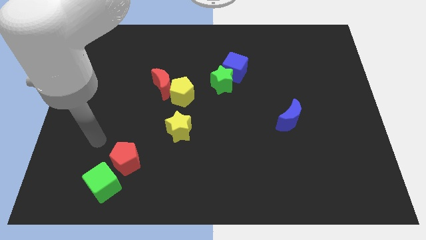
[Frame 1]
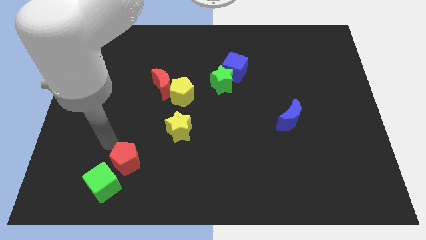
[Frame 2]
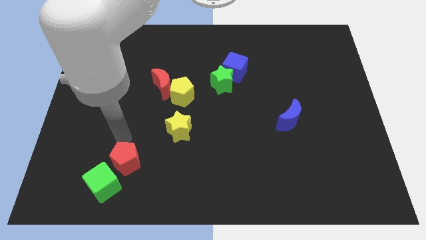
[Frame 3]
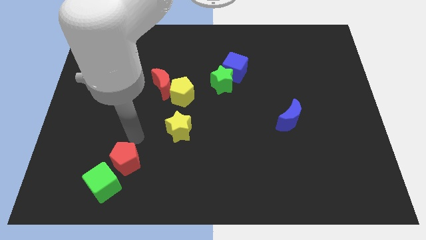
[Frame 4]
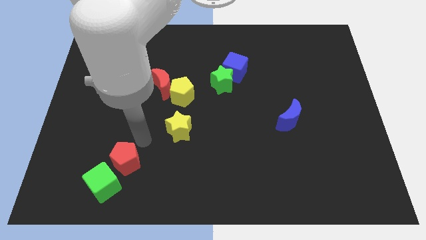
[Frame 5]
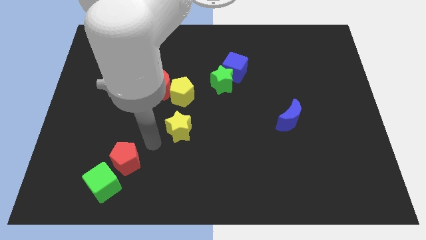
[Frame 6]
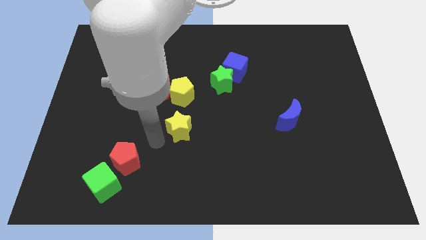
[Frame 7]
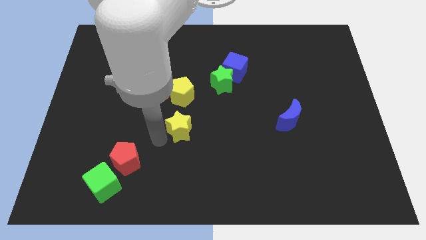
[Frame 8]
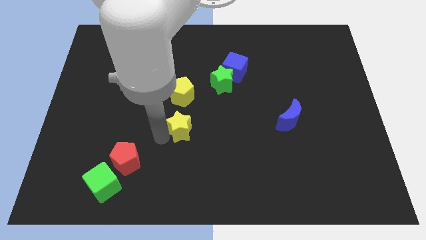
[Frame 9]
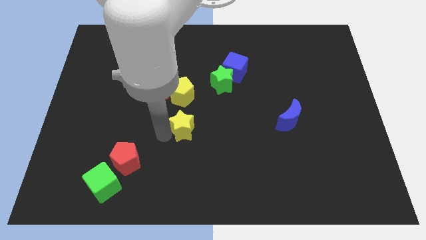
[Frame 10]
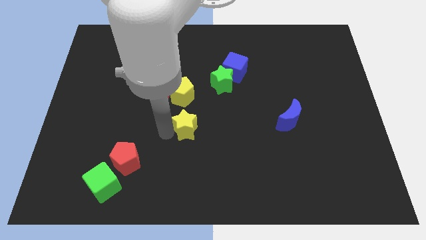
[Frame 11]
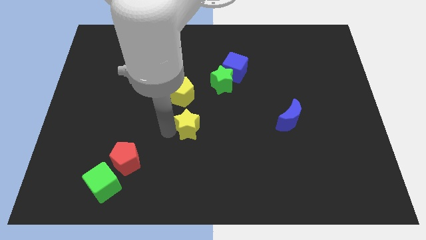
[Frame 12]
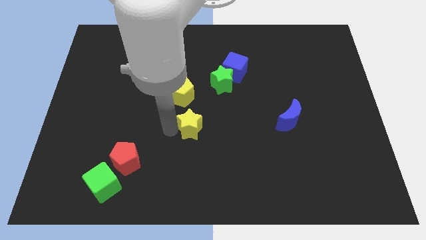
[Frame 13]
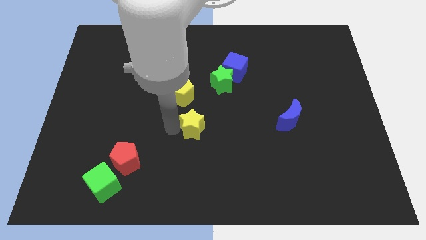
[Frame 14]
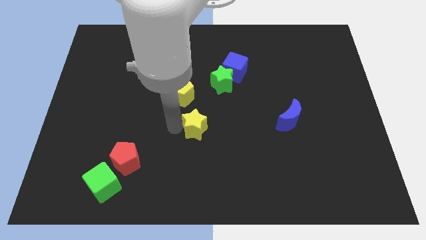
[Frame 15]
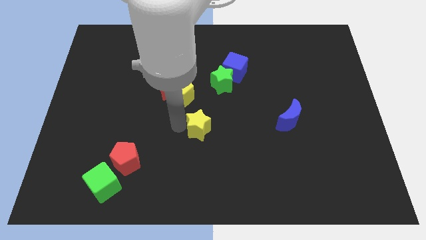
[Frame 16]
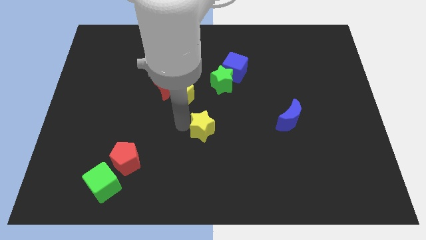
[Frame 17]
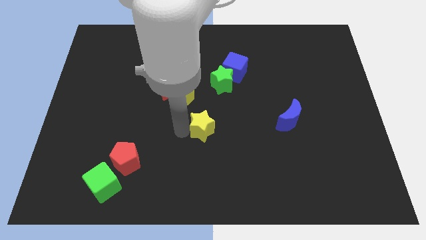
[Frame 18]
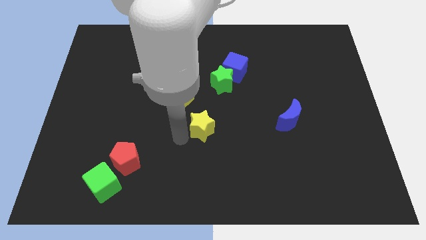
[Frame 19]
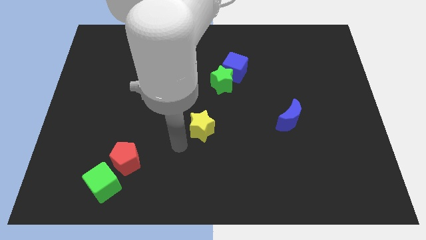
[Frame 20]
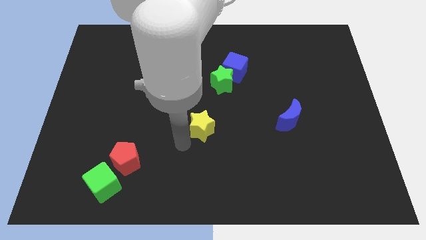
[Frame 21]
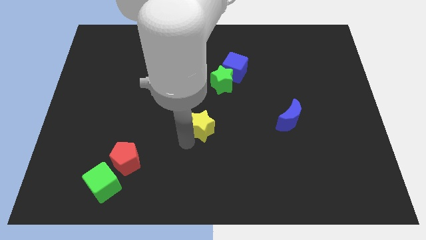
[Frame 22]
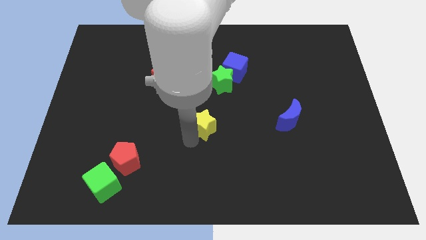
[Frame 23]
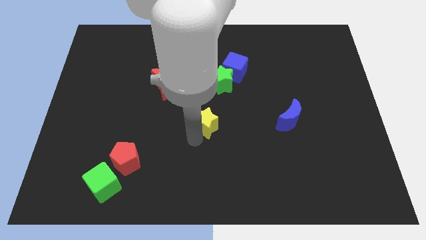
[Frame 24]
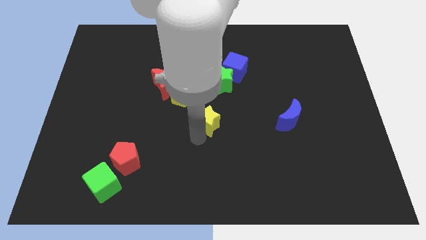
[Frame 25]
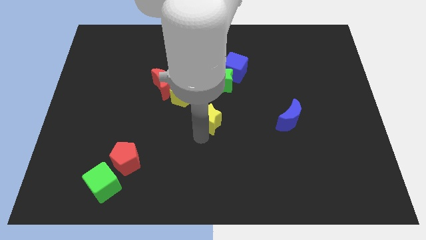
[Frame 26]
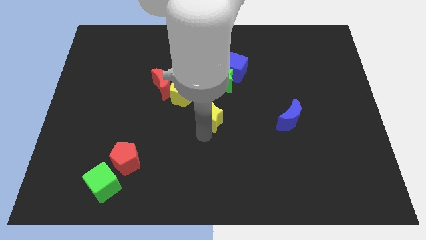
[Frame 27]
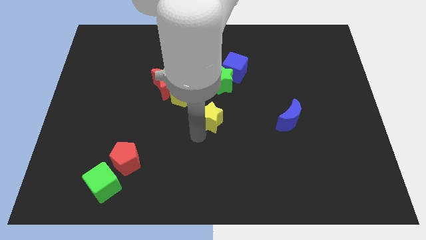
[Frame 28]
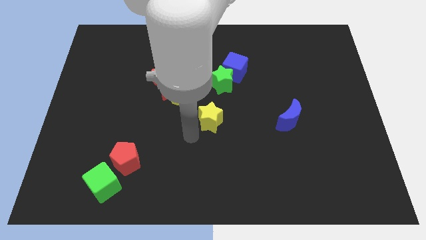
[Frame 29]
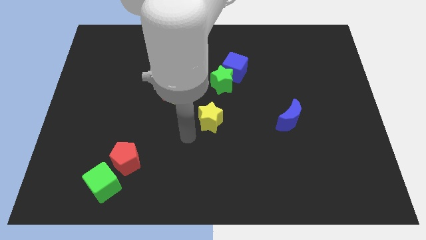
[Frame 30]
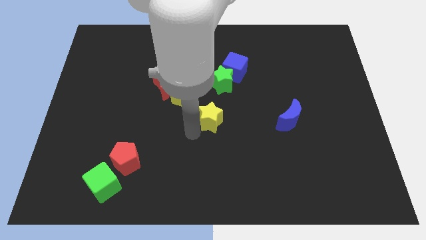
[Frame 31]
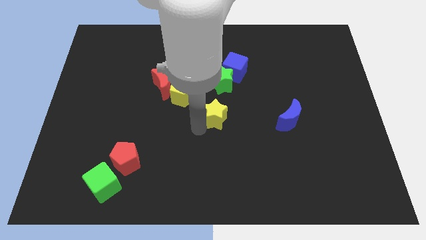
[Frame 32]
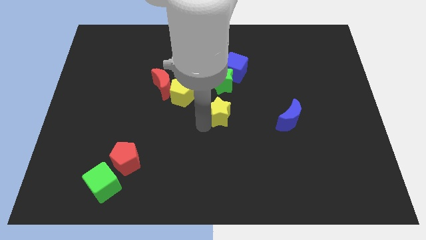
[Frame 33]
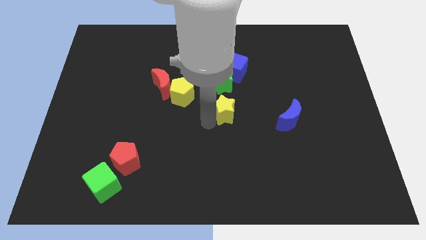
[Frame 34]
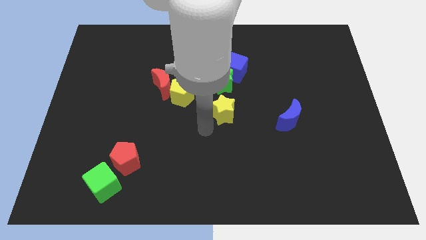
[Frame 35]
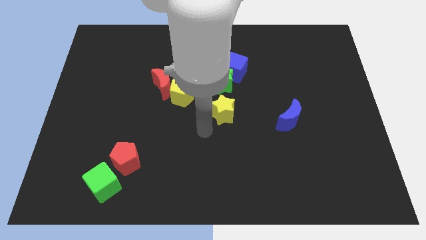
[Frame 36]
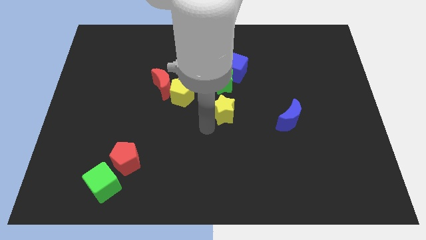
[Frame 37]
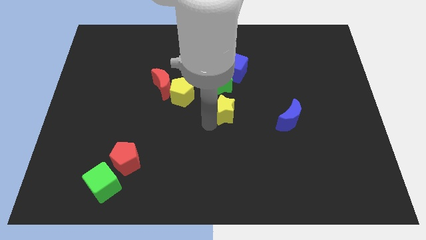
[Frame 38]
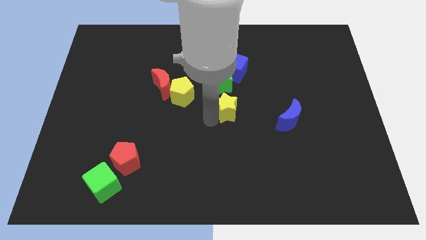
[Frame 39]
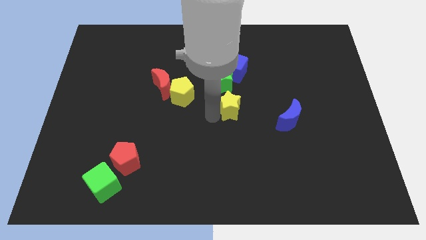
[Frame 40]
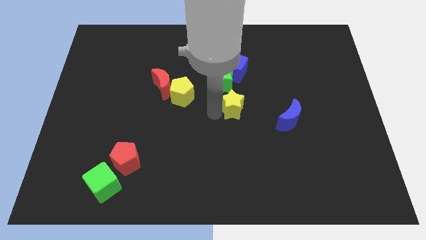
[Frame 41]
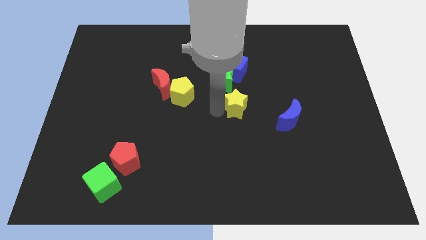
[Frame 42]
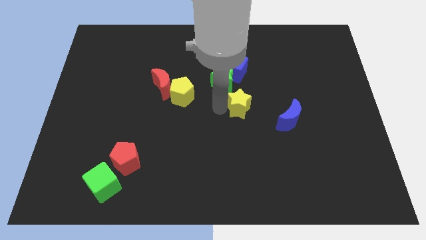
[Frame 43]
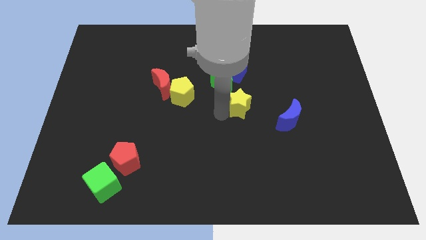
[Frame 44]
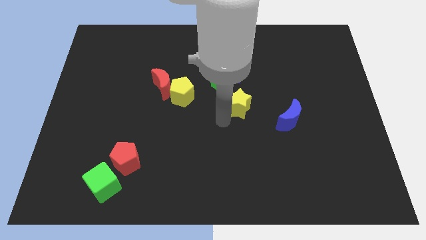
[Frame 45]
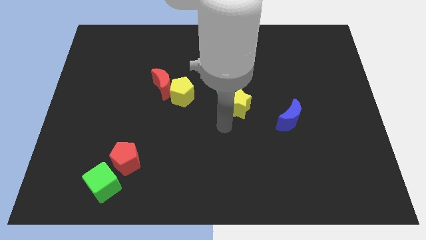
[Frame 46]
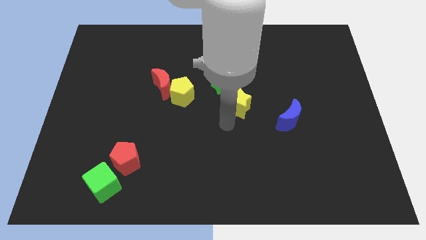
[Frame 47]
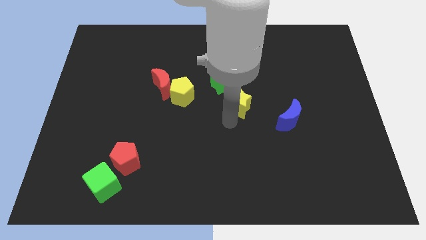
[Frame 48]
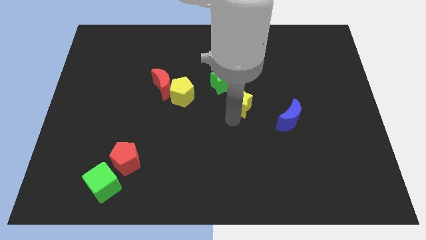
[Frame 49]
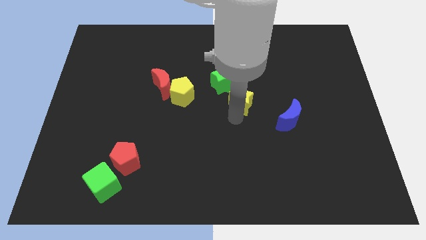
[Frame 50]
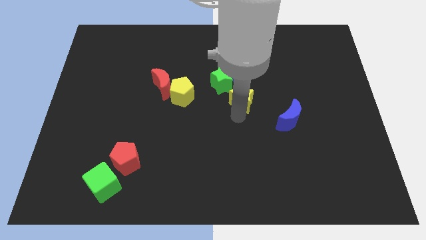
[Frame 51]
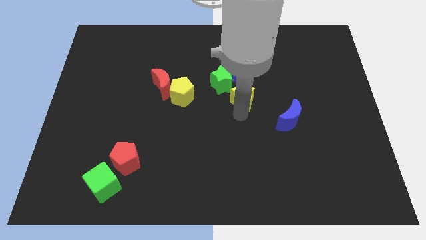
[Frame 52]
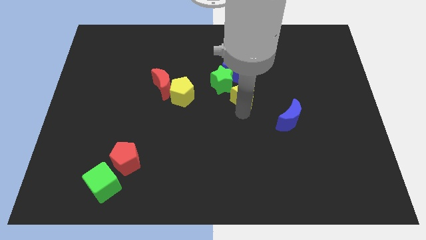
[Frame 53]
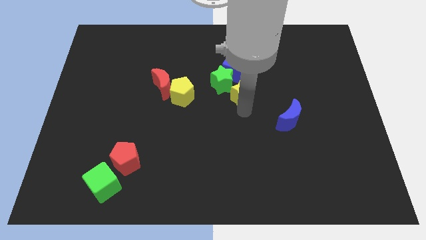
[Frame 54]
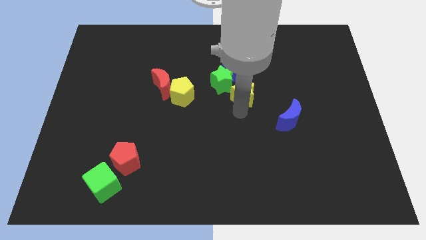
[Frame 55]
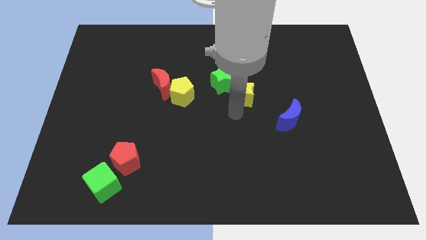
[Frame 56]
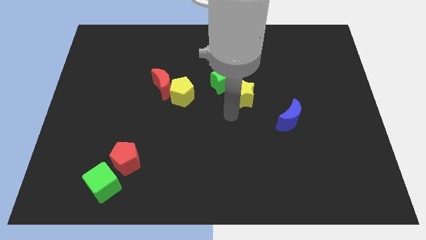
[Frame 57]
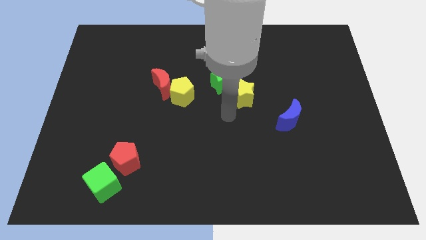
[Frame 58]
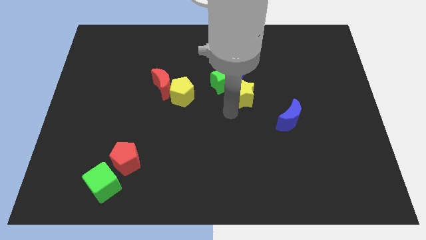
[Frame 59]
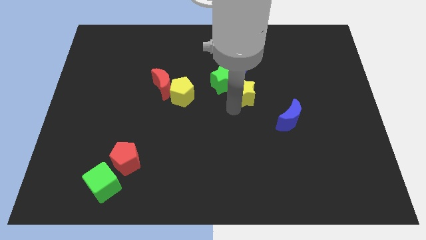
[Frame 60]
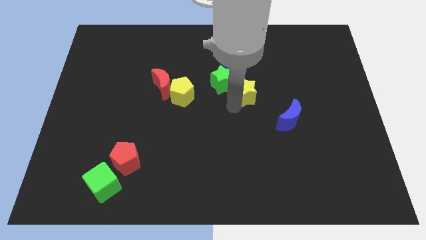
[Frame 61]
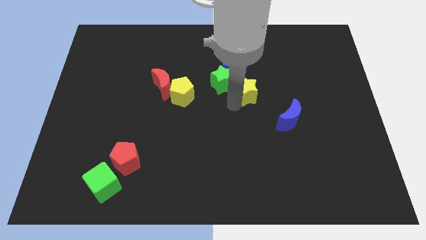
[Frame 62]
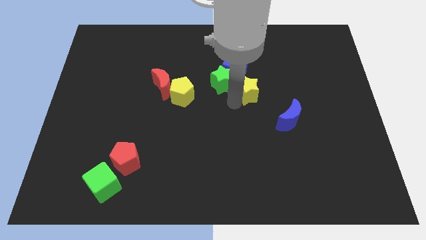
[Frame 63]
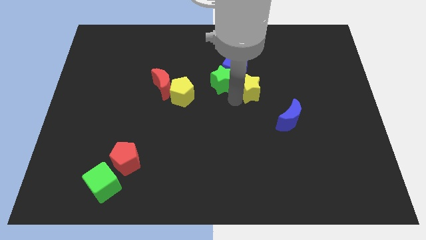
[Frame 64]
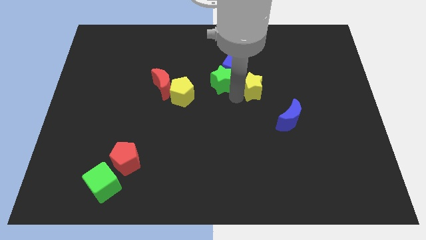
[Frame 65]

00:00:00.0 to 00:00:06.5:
slide the yellow star upwards and right

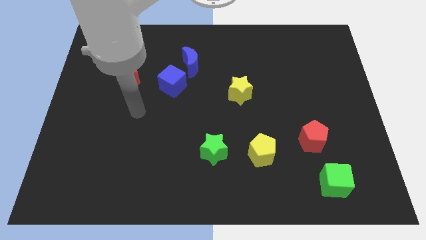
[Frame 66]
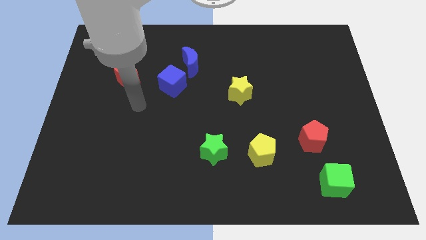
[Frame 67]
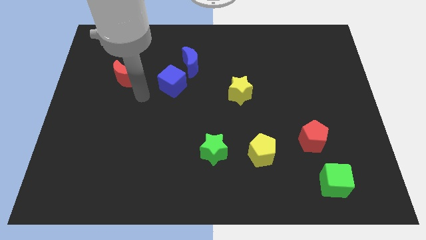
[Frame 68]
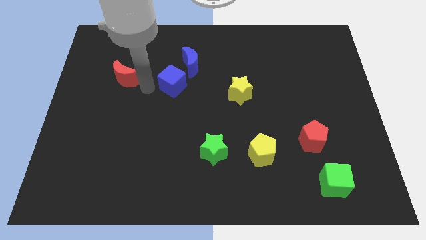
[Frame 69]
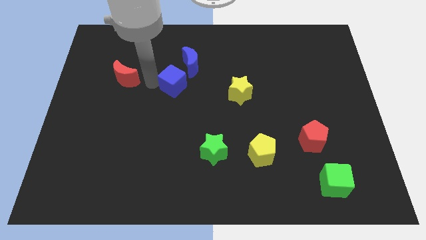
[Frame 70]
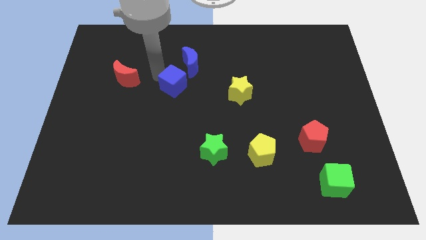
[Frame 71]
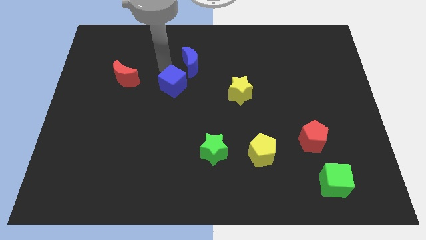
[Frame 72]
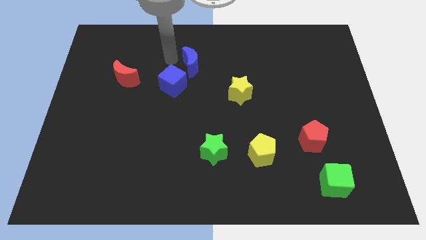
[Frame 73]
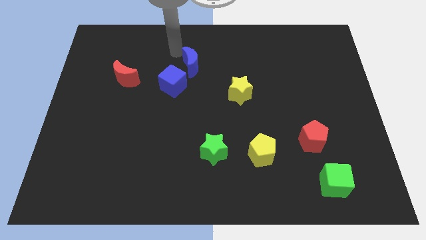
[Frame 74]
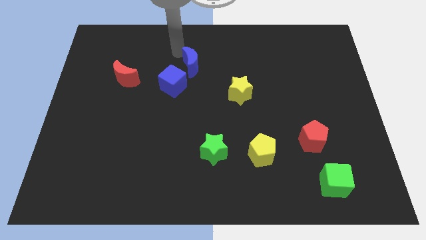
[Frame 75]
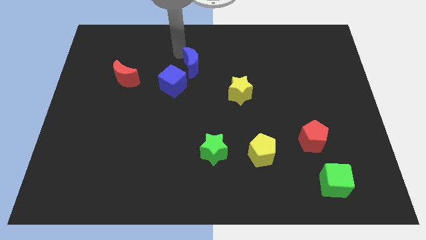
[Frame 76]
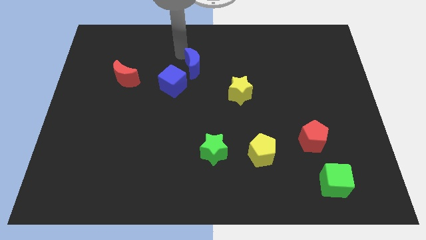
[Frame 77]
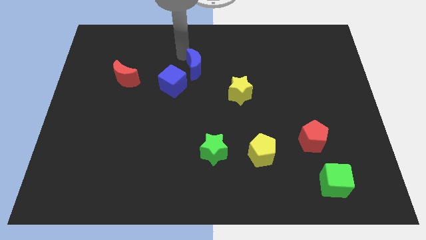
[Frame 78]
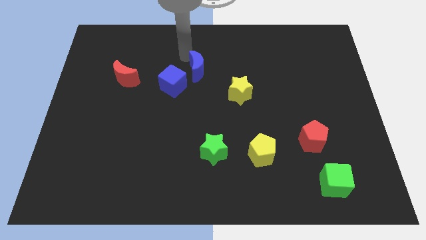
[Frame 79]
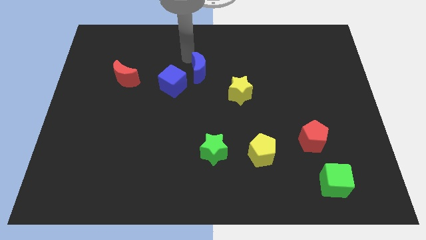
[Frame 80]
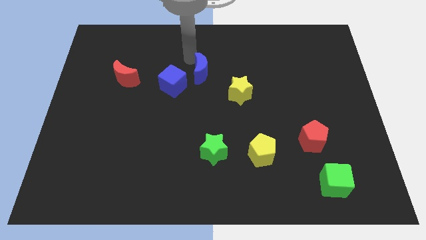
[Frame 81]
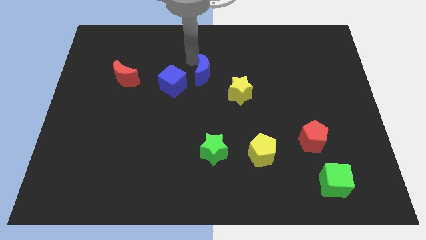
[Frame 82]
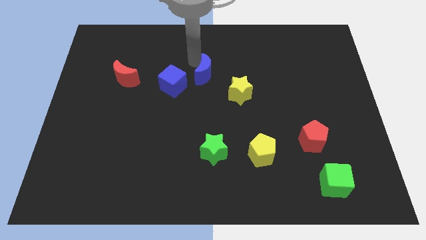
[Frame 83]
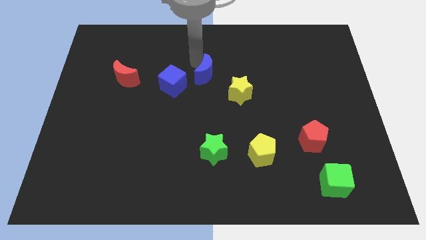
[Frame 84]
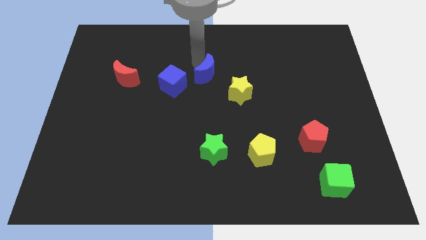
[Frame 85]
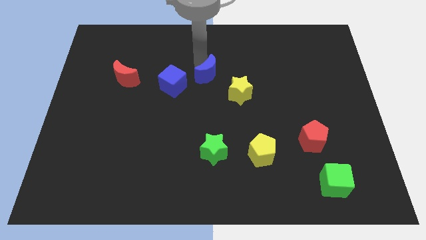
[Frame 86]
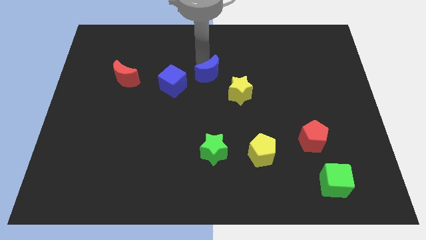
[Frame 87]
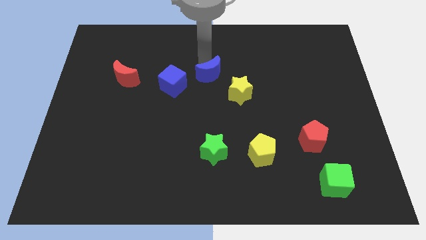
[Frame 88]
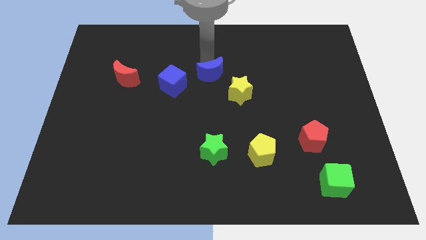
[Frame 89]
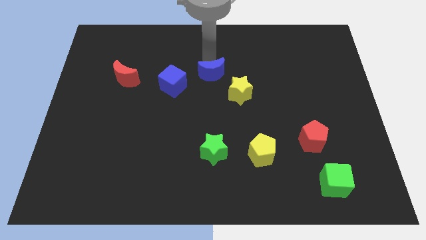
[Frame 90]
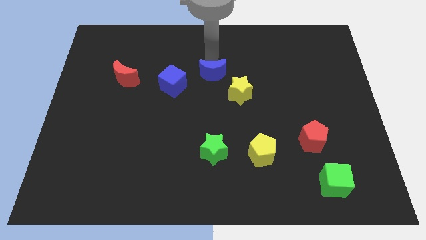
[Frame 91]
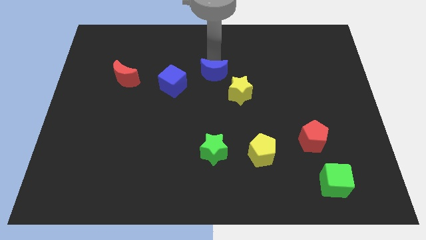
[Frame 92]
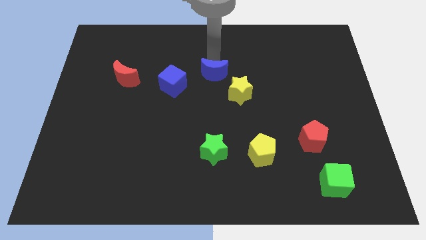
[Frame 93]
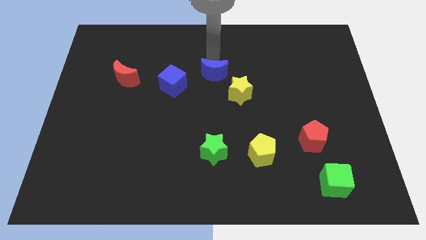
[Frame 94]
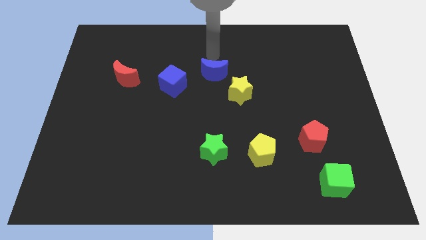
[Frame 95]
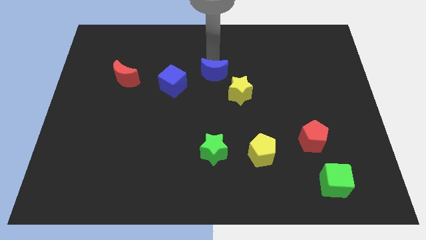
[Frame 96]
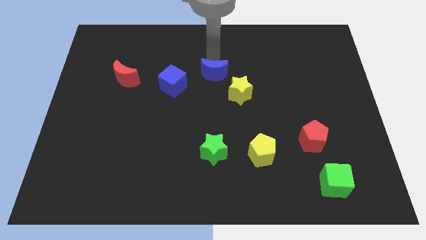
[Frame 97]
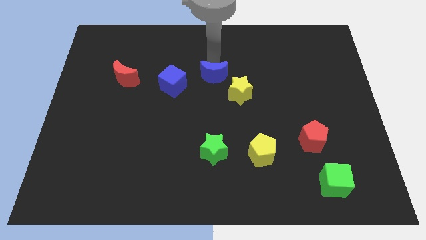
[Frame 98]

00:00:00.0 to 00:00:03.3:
push the blue moon downwards and then to the right slightly
